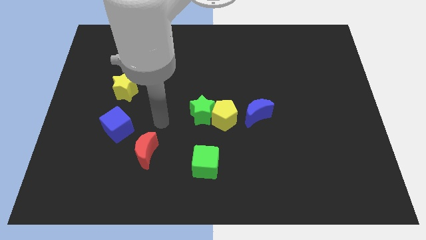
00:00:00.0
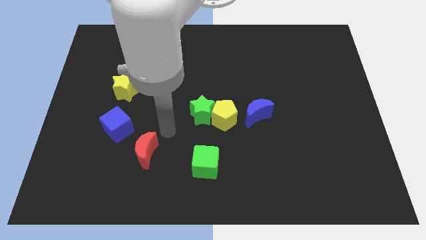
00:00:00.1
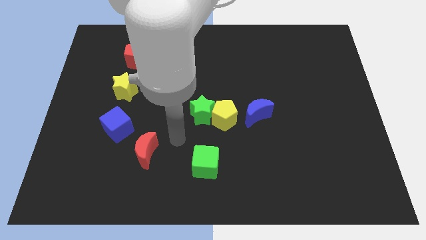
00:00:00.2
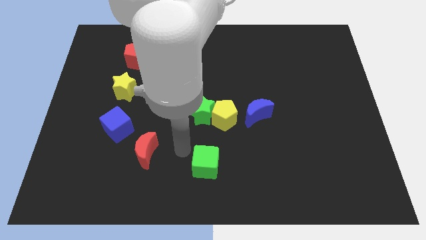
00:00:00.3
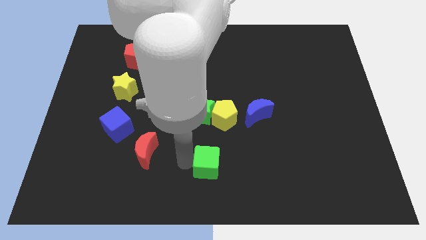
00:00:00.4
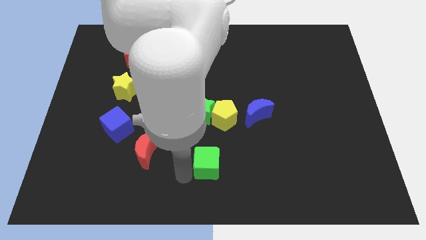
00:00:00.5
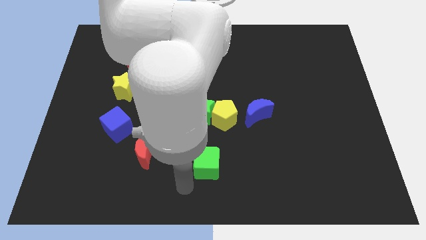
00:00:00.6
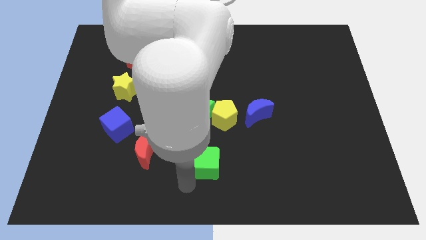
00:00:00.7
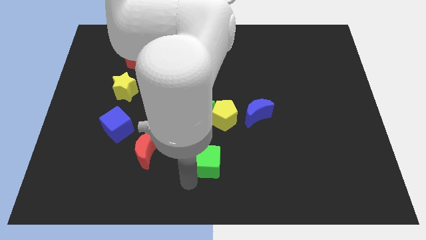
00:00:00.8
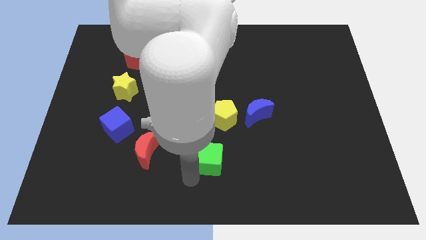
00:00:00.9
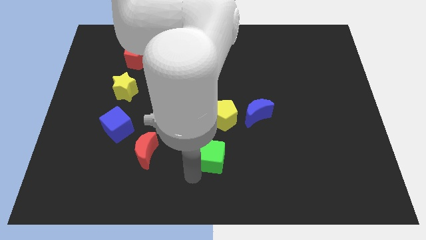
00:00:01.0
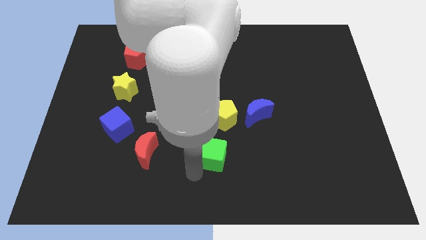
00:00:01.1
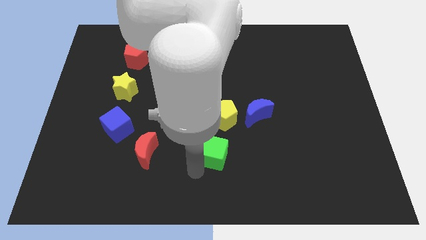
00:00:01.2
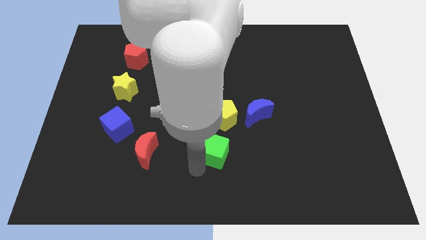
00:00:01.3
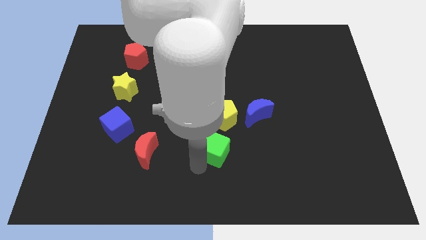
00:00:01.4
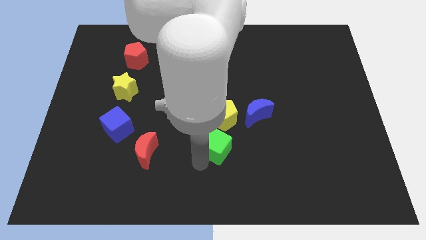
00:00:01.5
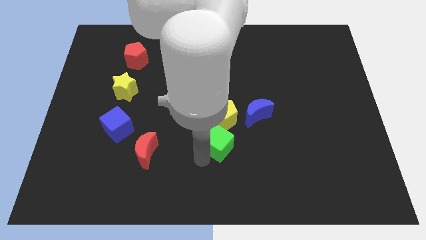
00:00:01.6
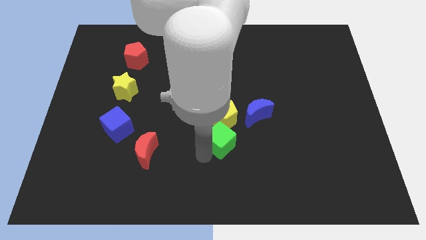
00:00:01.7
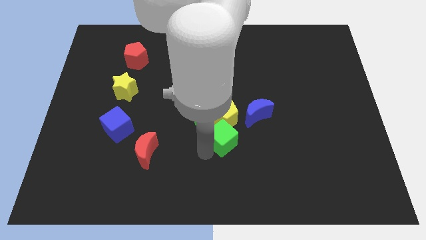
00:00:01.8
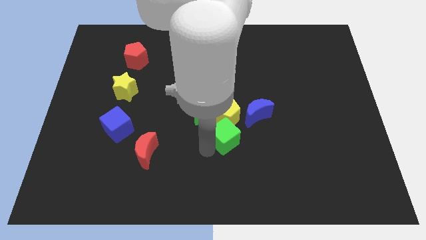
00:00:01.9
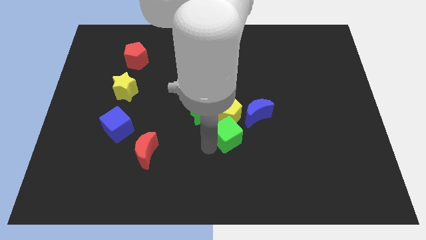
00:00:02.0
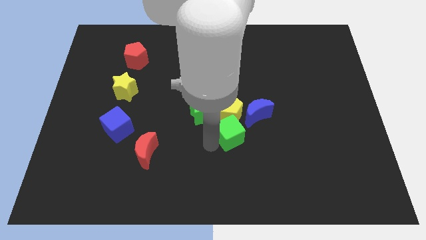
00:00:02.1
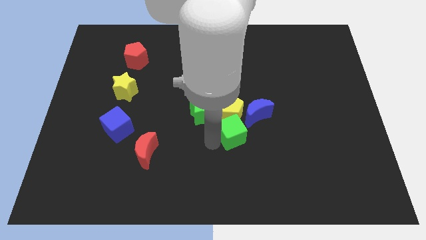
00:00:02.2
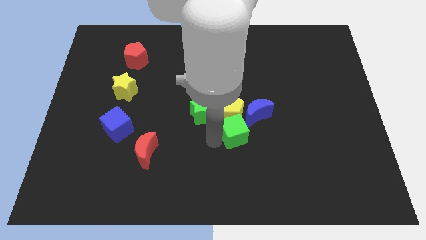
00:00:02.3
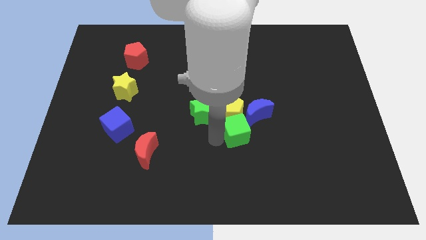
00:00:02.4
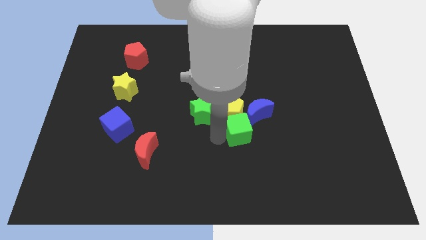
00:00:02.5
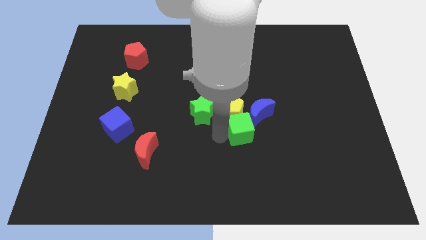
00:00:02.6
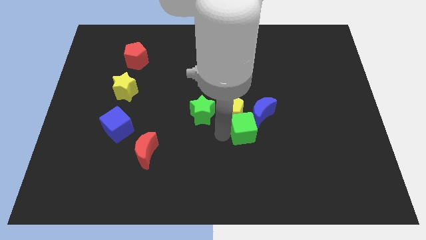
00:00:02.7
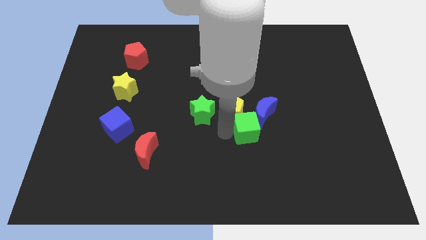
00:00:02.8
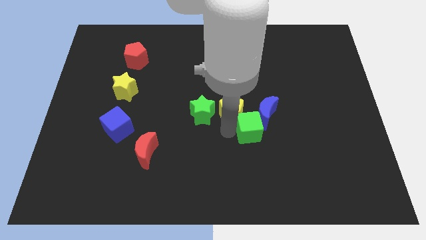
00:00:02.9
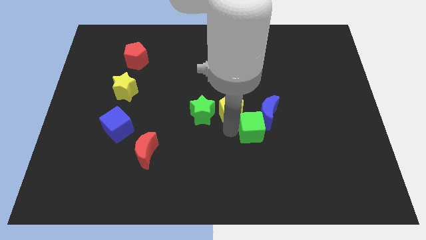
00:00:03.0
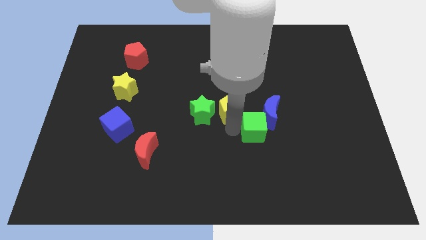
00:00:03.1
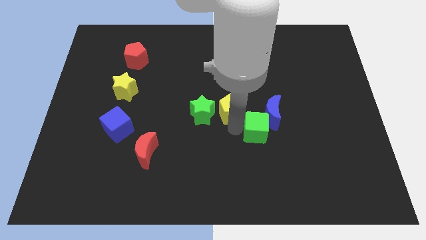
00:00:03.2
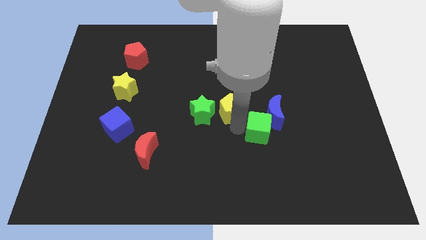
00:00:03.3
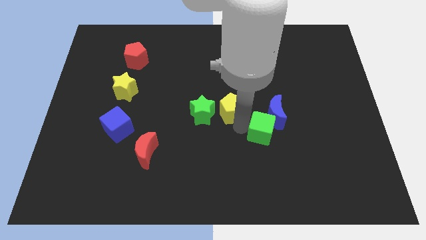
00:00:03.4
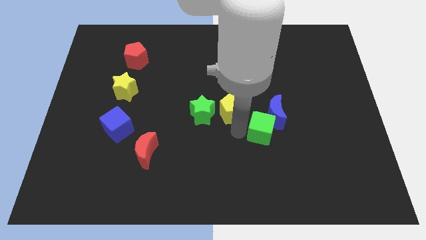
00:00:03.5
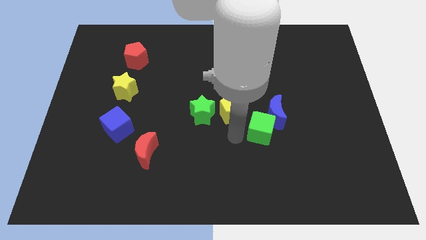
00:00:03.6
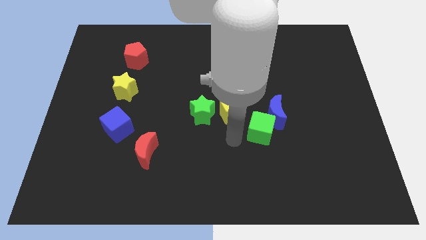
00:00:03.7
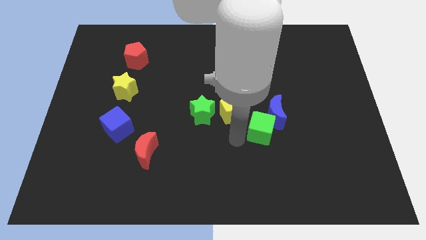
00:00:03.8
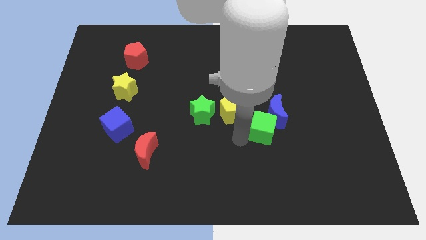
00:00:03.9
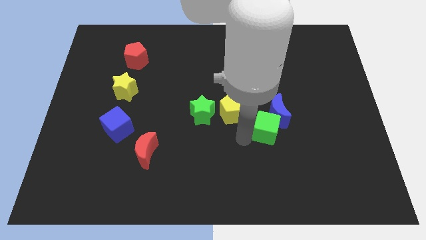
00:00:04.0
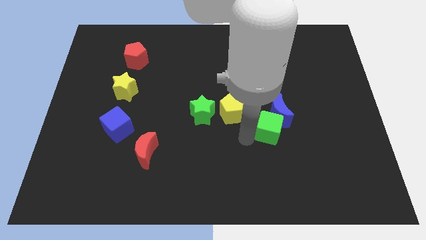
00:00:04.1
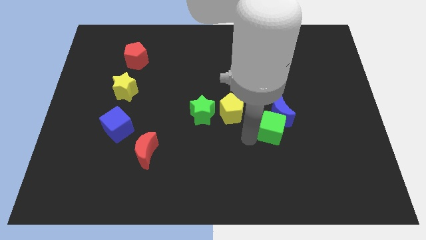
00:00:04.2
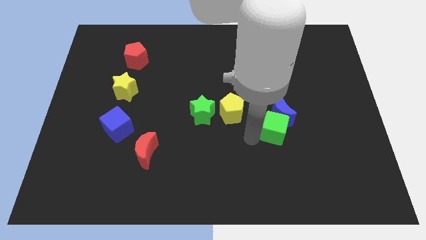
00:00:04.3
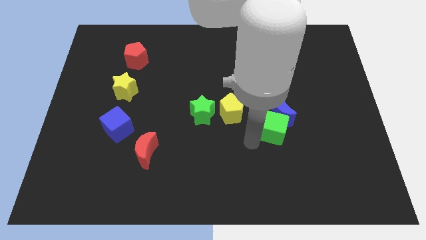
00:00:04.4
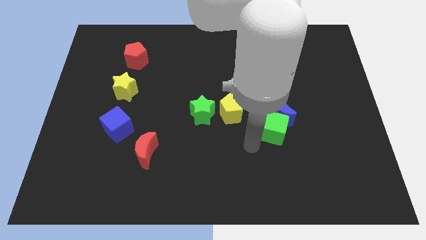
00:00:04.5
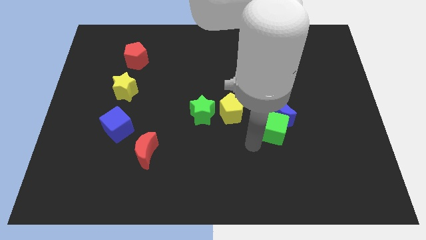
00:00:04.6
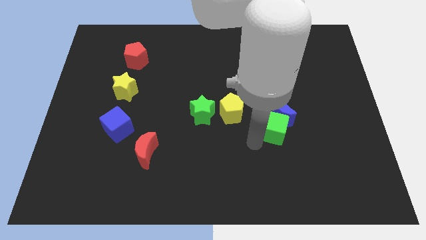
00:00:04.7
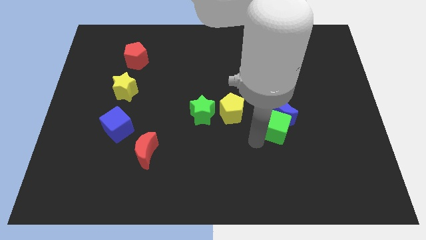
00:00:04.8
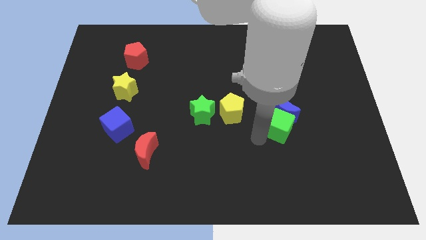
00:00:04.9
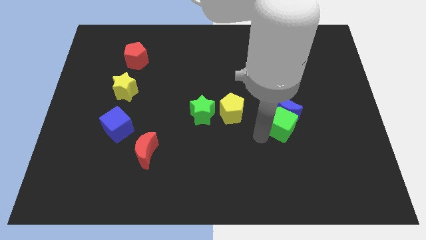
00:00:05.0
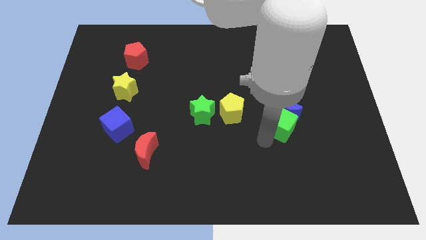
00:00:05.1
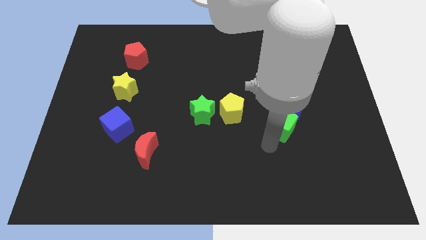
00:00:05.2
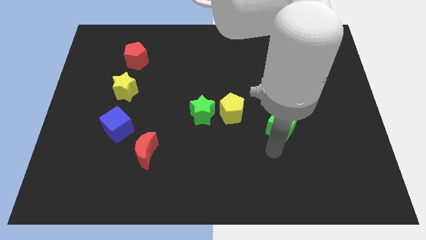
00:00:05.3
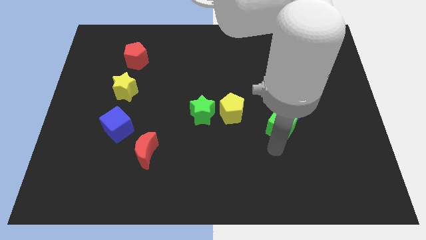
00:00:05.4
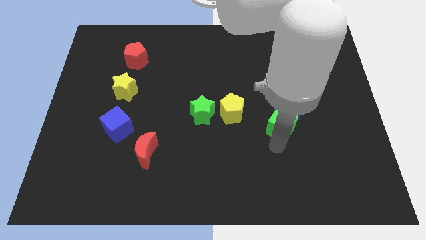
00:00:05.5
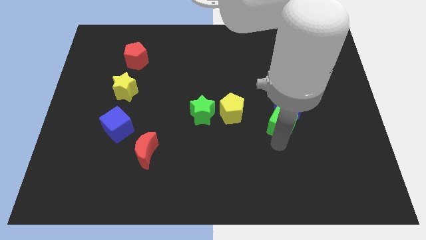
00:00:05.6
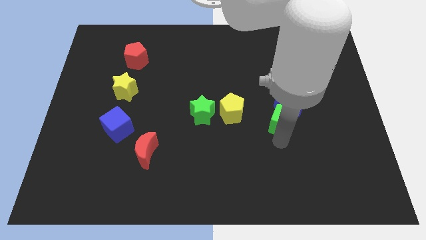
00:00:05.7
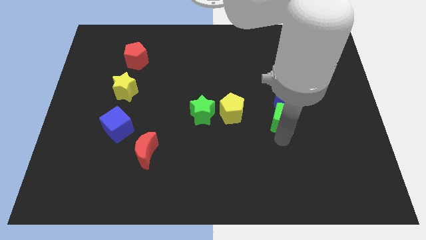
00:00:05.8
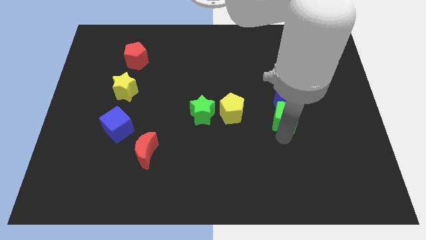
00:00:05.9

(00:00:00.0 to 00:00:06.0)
move the green cube diagonally up and right

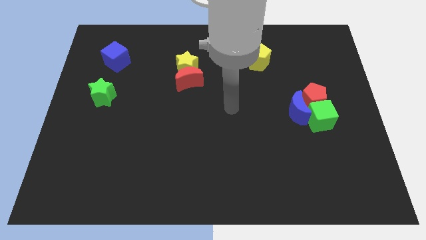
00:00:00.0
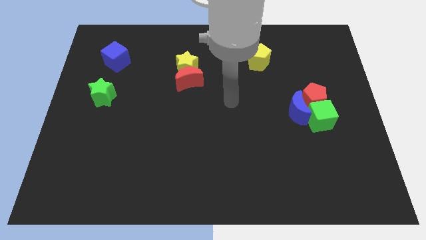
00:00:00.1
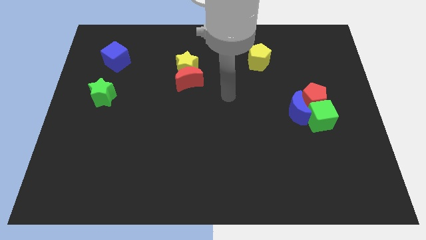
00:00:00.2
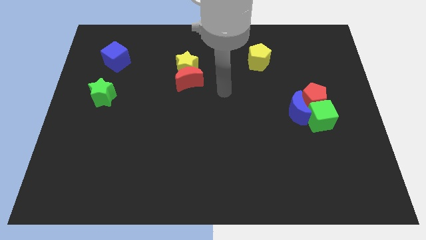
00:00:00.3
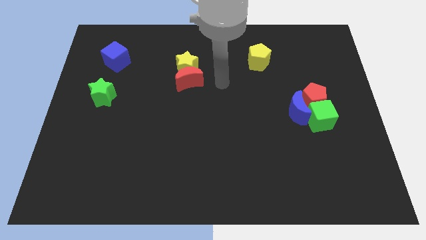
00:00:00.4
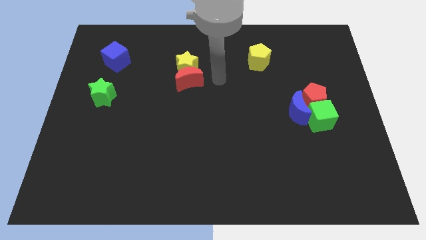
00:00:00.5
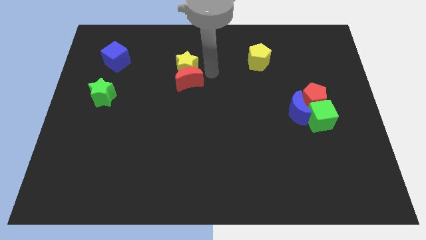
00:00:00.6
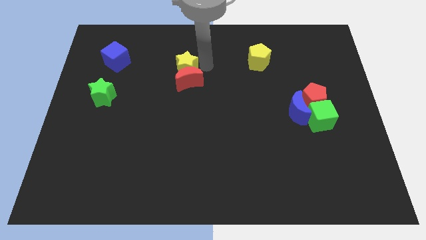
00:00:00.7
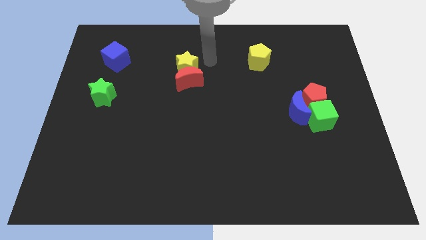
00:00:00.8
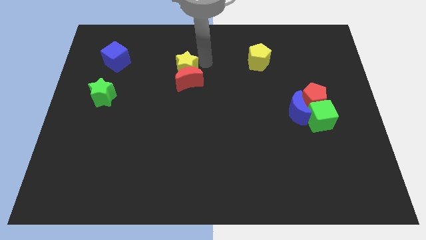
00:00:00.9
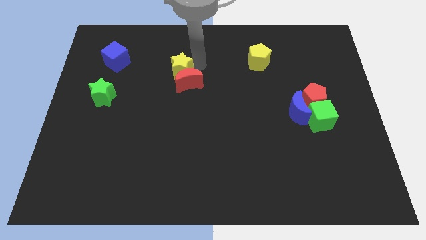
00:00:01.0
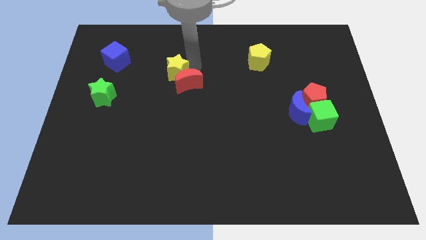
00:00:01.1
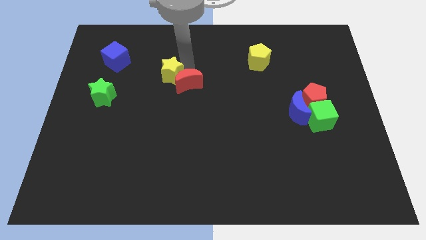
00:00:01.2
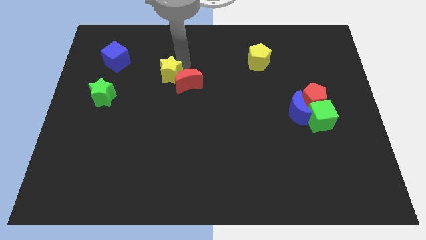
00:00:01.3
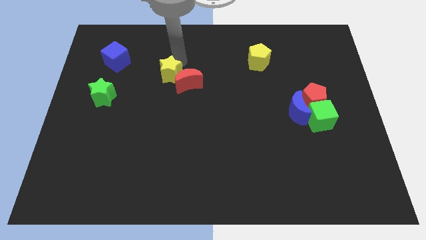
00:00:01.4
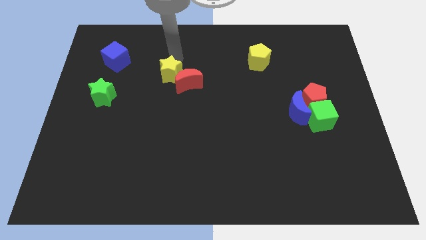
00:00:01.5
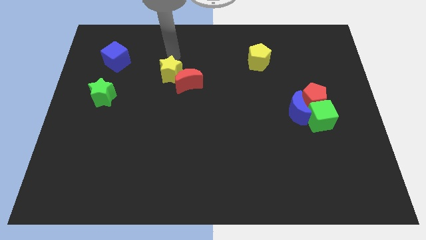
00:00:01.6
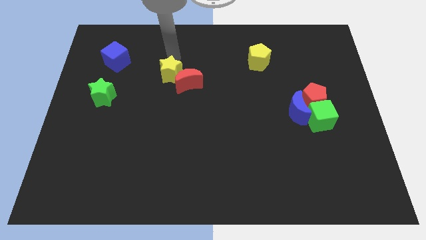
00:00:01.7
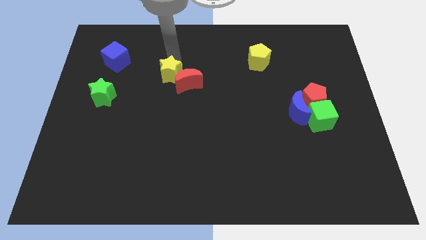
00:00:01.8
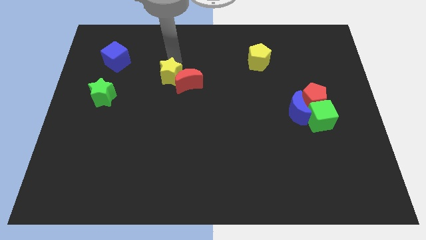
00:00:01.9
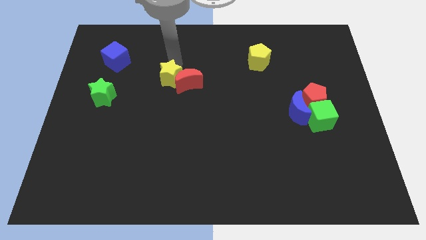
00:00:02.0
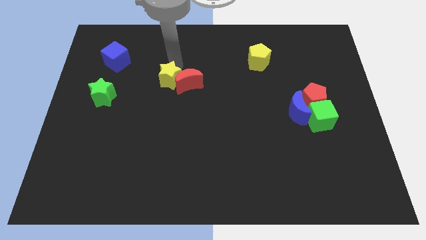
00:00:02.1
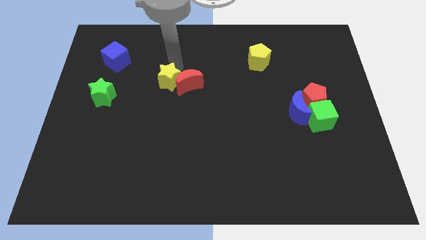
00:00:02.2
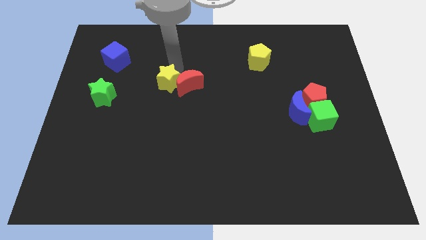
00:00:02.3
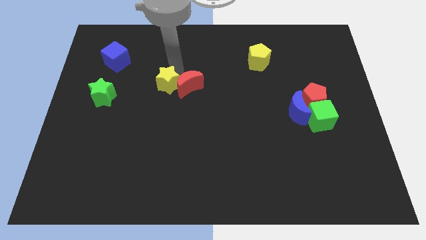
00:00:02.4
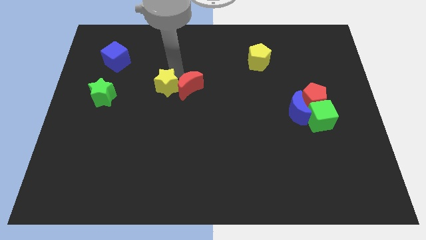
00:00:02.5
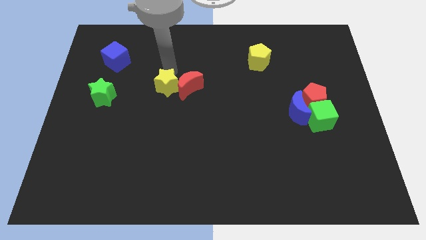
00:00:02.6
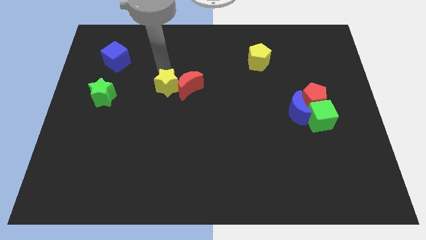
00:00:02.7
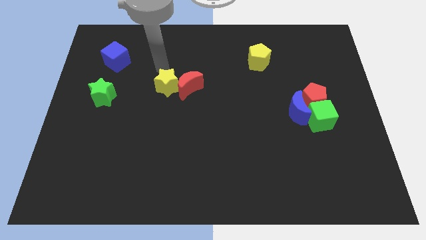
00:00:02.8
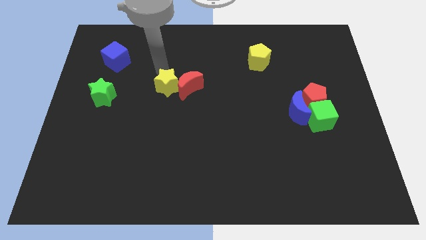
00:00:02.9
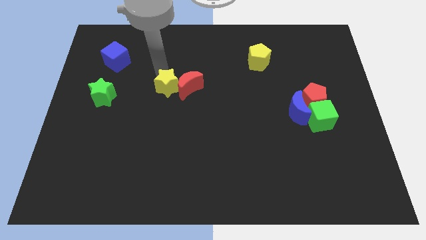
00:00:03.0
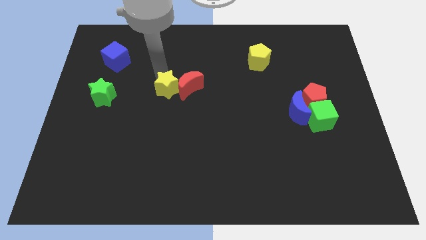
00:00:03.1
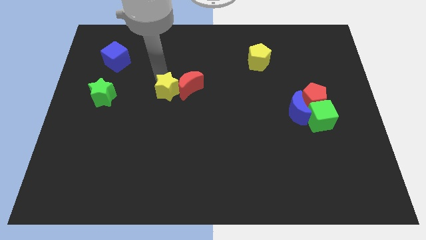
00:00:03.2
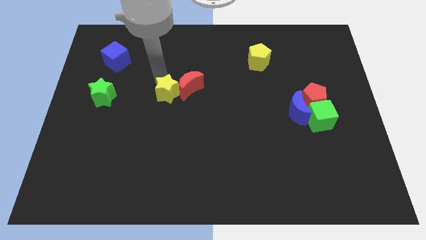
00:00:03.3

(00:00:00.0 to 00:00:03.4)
move the yellow star somewhat down
